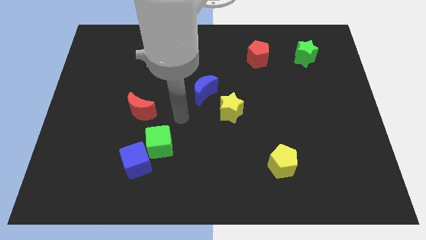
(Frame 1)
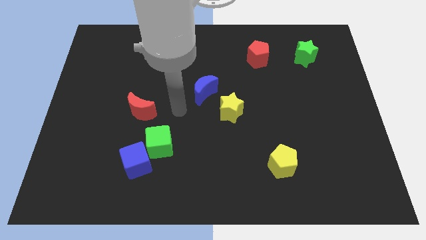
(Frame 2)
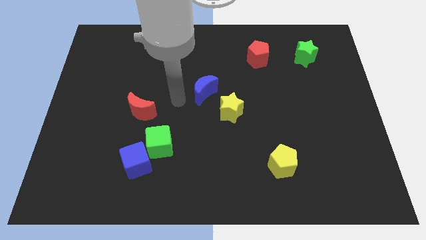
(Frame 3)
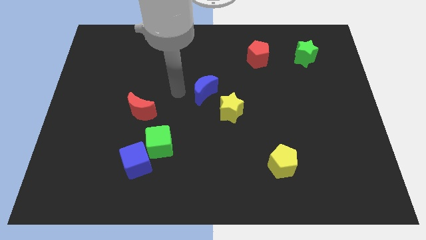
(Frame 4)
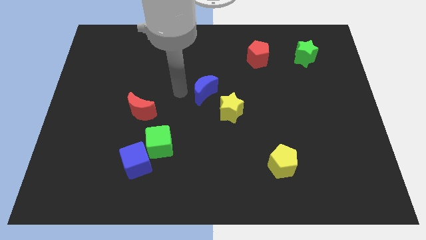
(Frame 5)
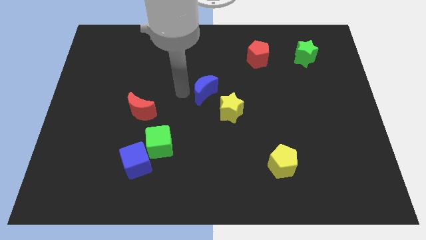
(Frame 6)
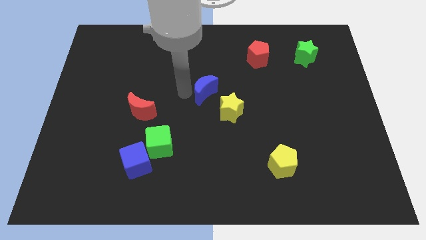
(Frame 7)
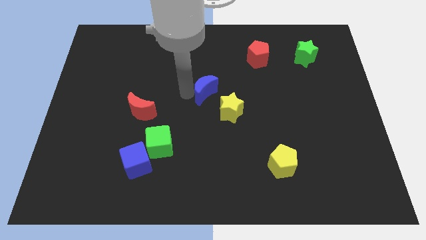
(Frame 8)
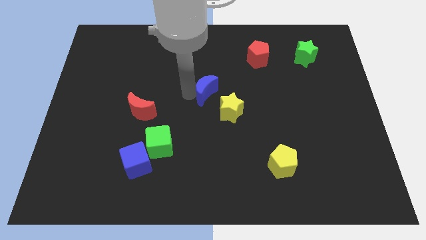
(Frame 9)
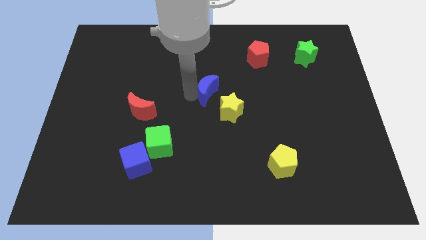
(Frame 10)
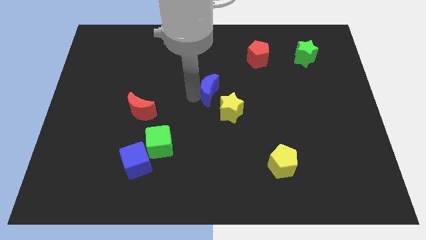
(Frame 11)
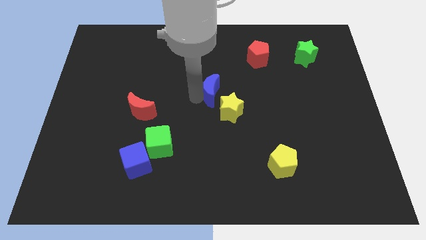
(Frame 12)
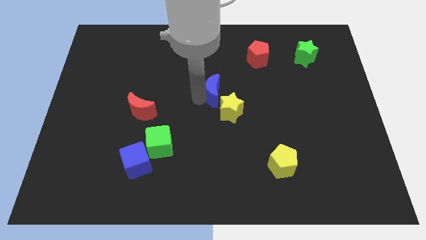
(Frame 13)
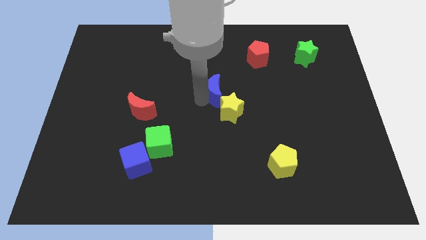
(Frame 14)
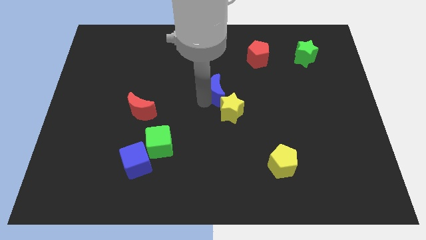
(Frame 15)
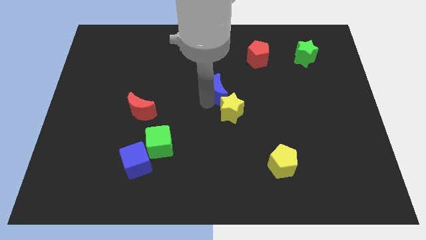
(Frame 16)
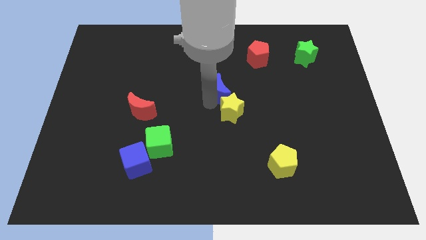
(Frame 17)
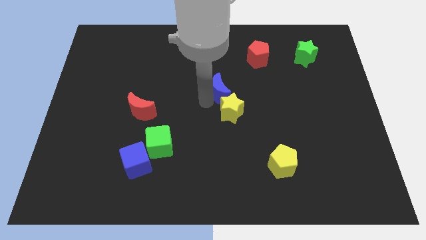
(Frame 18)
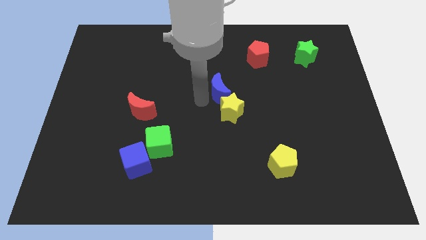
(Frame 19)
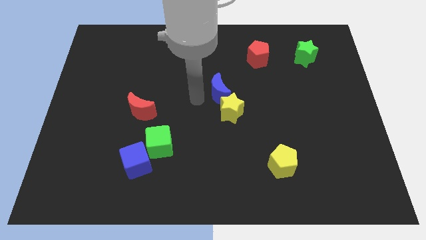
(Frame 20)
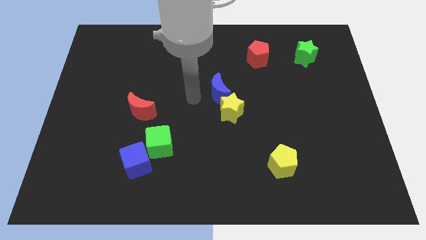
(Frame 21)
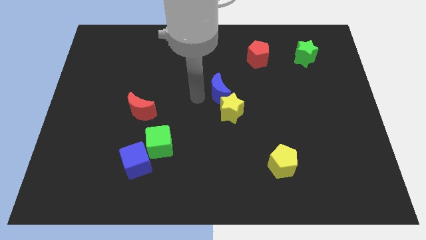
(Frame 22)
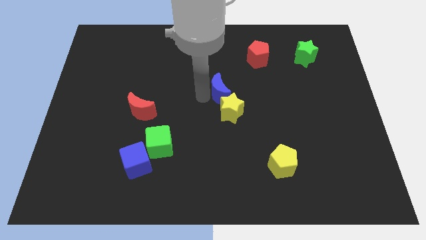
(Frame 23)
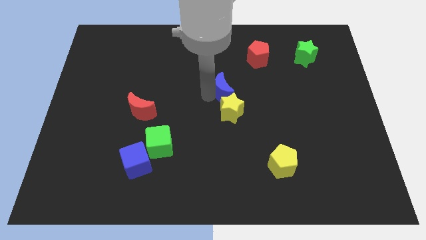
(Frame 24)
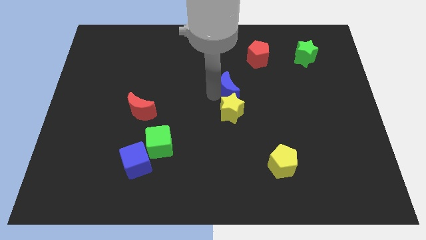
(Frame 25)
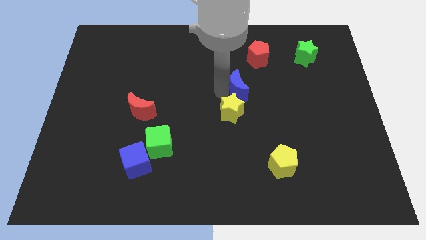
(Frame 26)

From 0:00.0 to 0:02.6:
slide the blue moon a little right

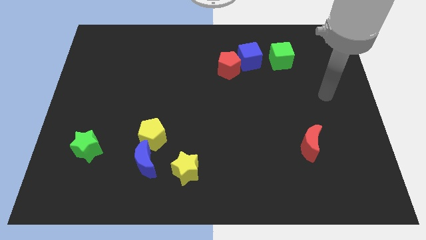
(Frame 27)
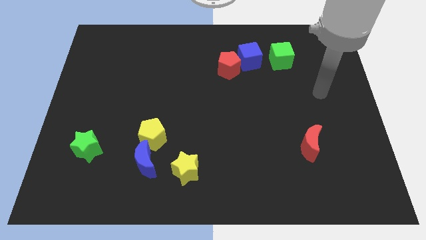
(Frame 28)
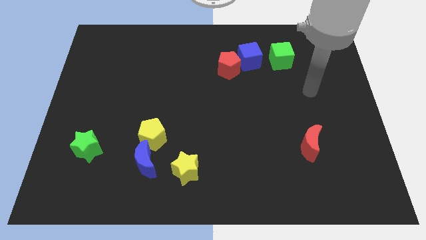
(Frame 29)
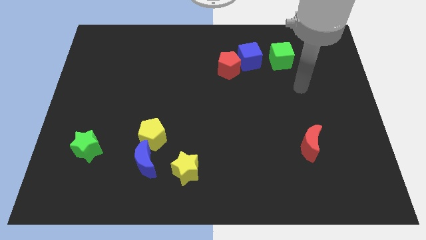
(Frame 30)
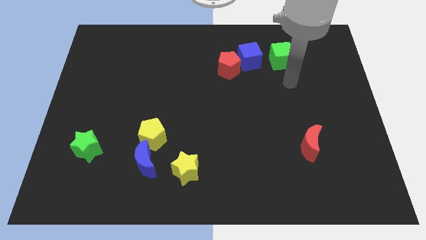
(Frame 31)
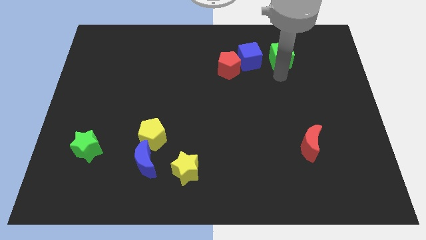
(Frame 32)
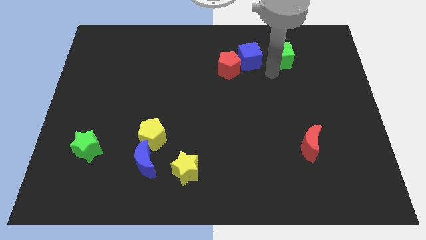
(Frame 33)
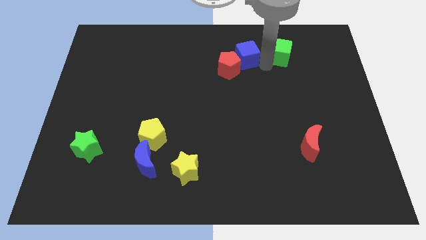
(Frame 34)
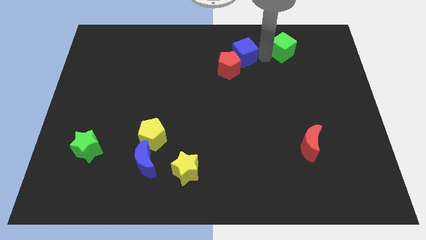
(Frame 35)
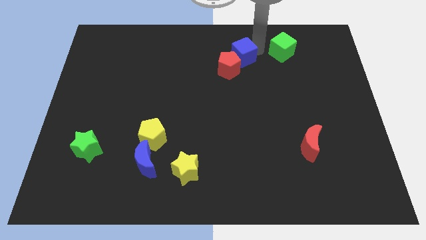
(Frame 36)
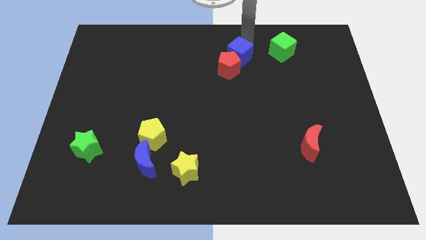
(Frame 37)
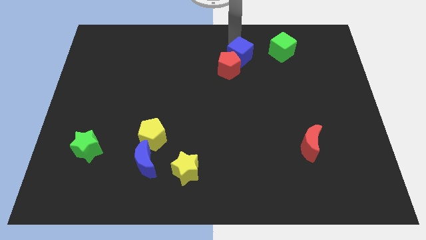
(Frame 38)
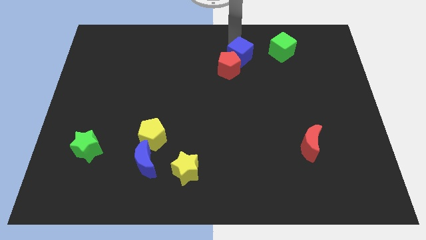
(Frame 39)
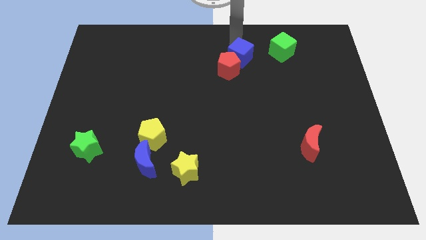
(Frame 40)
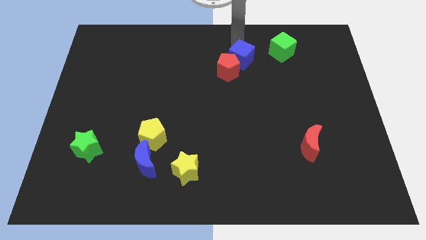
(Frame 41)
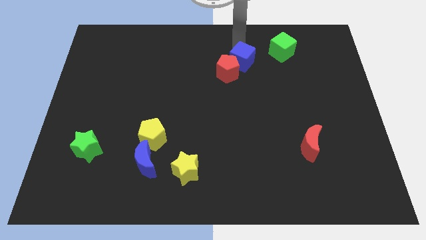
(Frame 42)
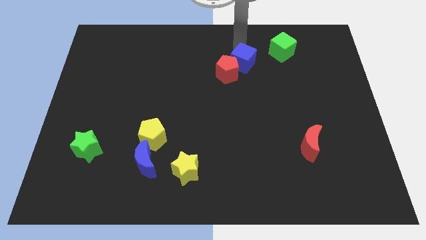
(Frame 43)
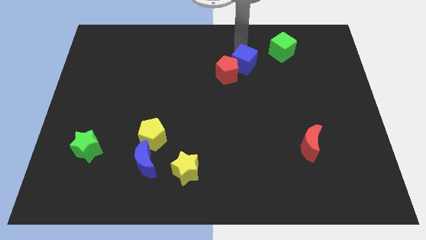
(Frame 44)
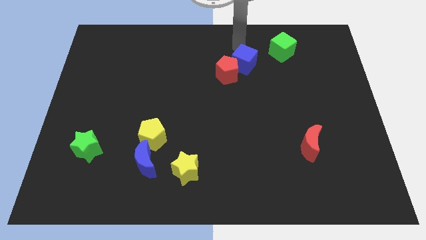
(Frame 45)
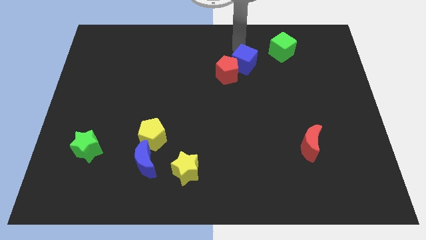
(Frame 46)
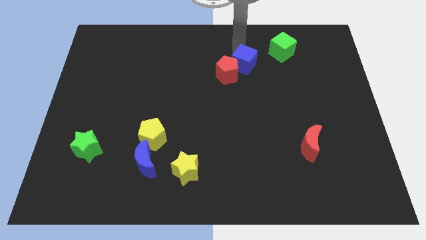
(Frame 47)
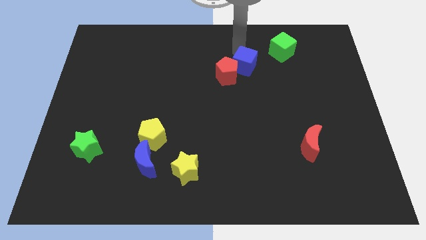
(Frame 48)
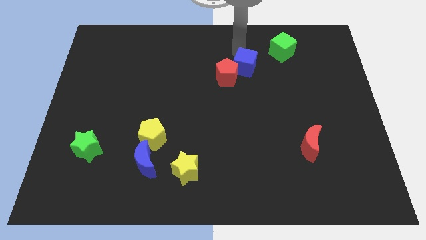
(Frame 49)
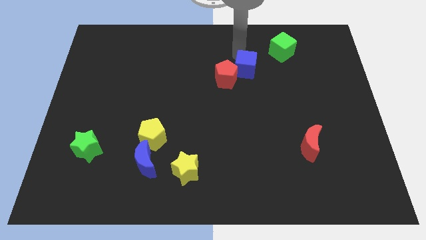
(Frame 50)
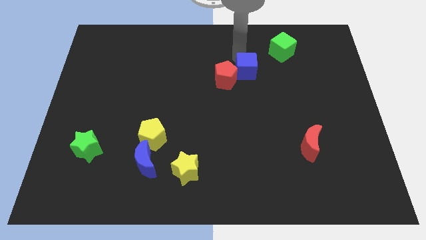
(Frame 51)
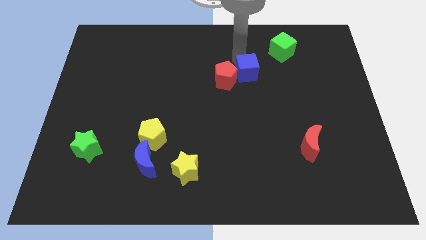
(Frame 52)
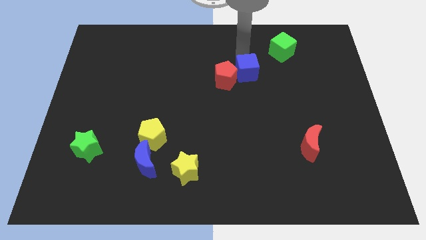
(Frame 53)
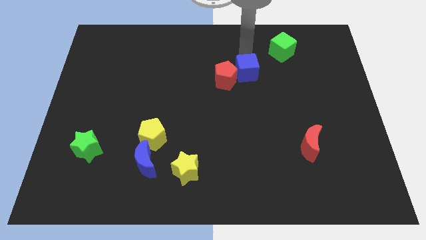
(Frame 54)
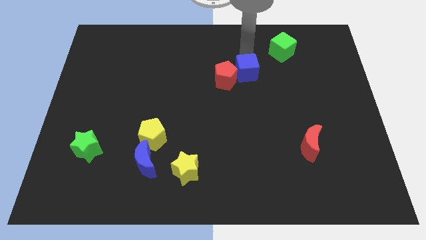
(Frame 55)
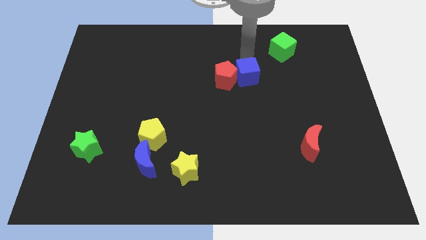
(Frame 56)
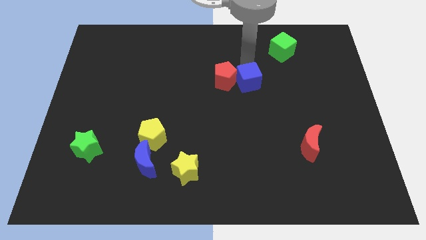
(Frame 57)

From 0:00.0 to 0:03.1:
push the blue cube downwards a little

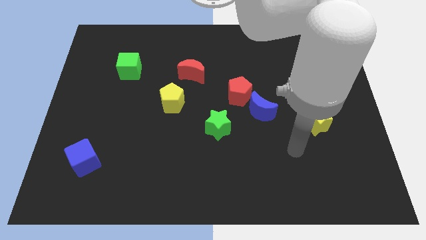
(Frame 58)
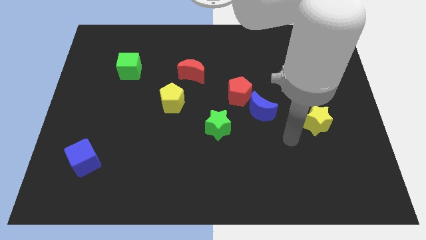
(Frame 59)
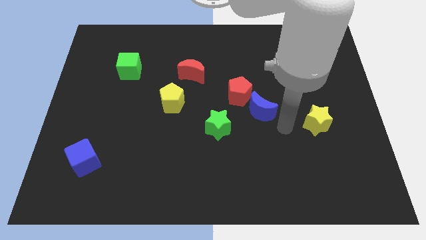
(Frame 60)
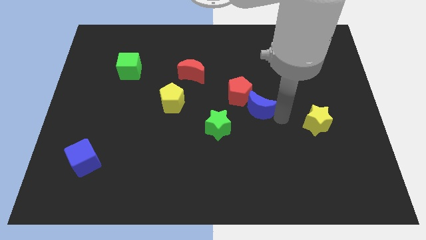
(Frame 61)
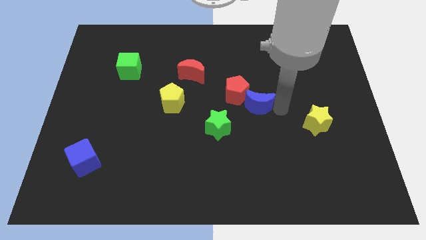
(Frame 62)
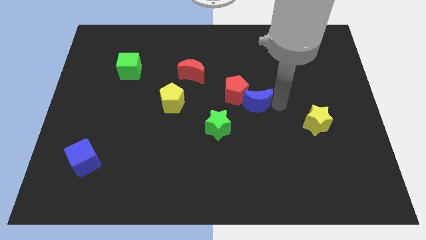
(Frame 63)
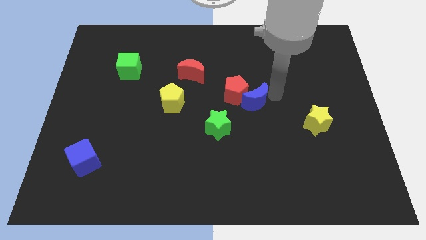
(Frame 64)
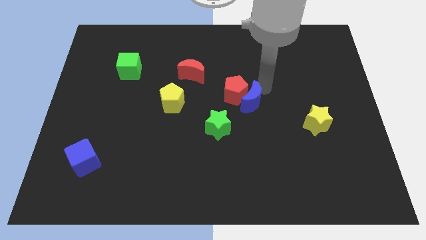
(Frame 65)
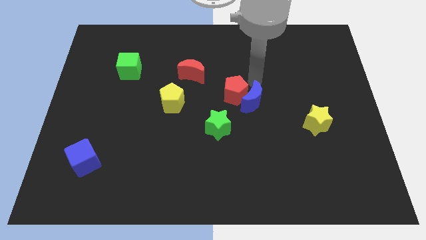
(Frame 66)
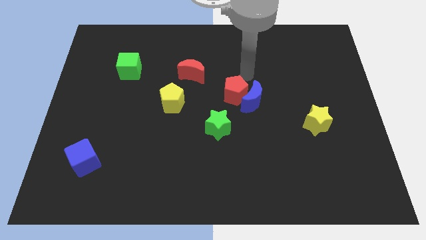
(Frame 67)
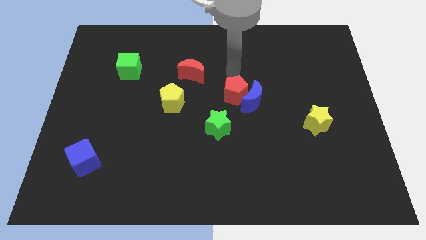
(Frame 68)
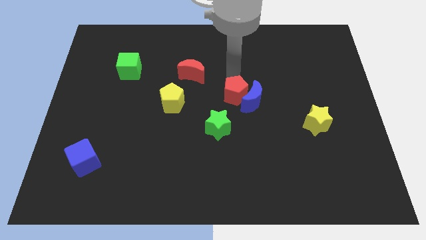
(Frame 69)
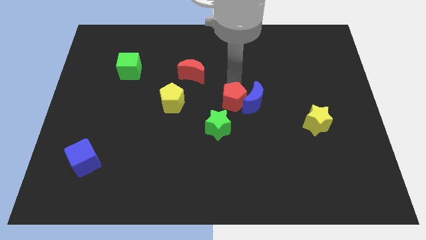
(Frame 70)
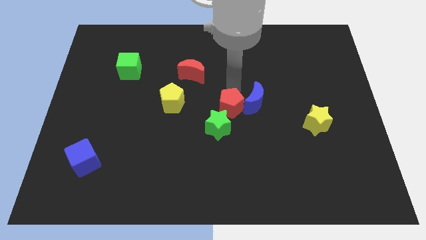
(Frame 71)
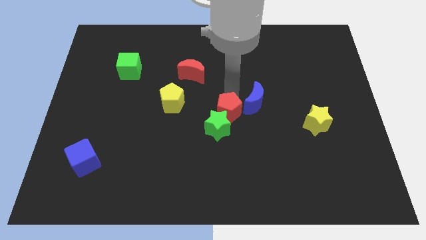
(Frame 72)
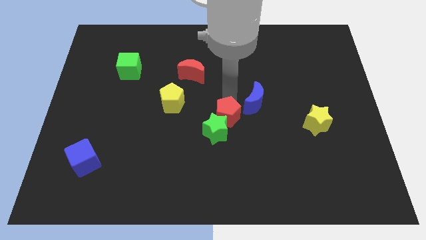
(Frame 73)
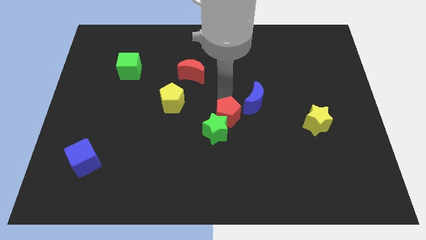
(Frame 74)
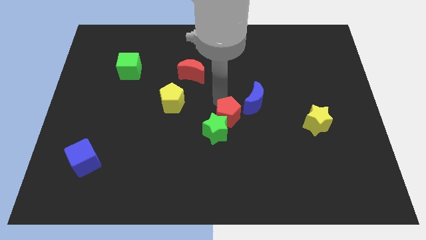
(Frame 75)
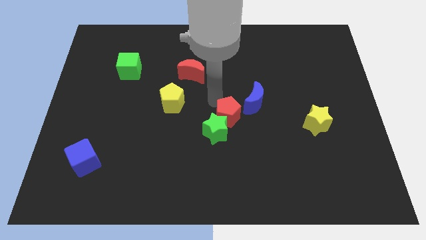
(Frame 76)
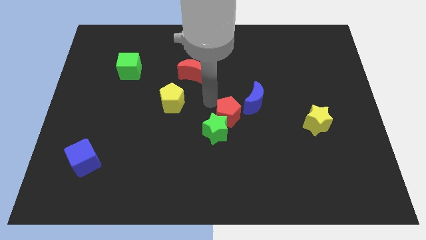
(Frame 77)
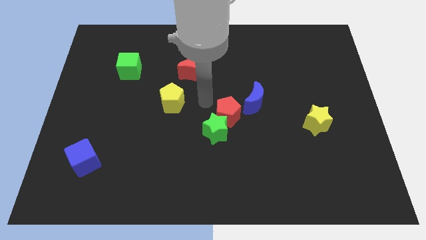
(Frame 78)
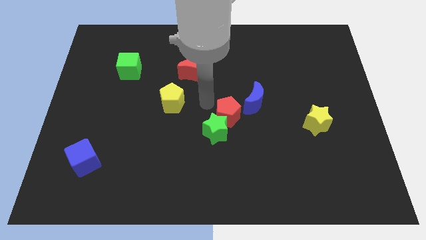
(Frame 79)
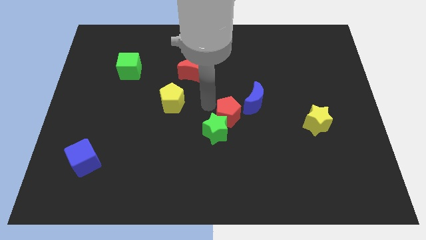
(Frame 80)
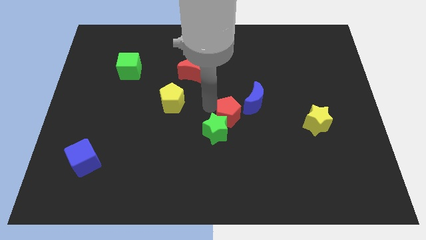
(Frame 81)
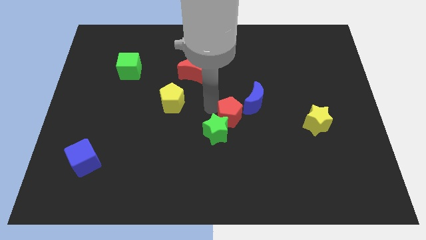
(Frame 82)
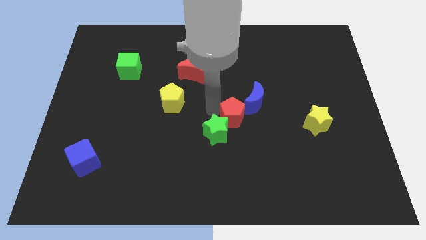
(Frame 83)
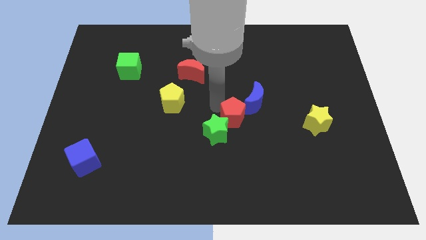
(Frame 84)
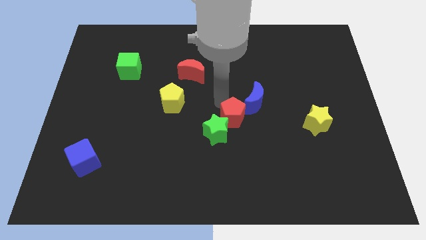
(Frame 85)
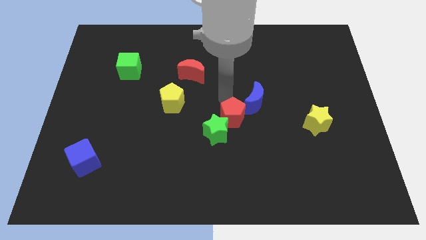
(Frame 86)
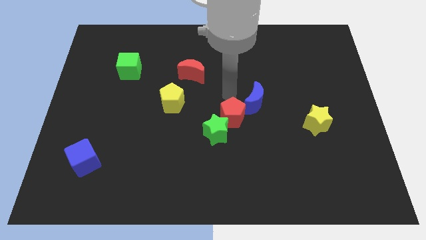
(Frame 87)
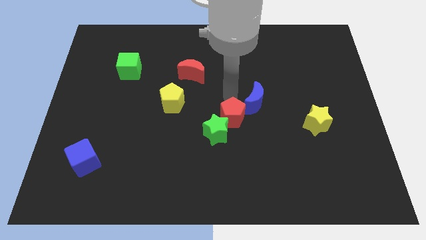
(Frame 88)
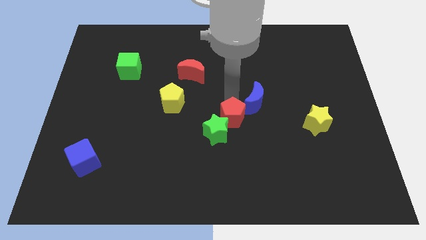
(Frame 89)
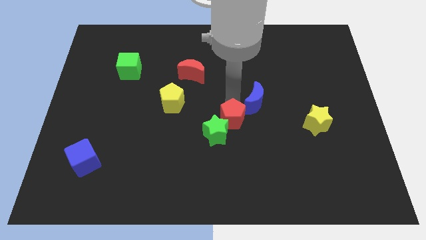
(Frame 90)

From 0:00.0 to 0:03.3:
move the red pentagon downwards a bit
